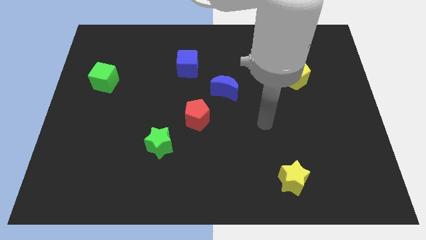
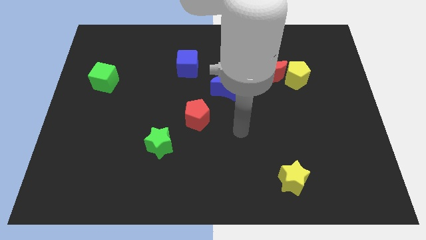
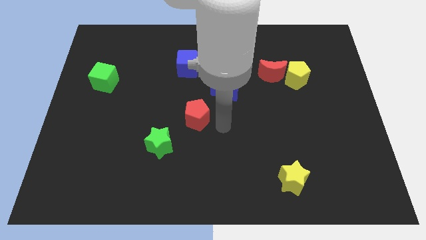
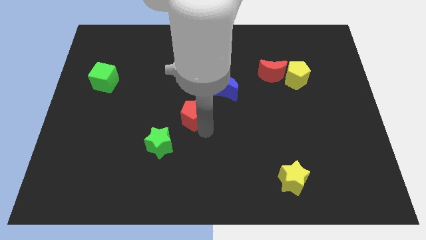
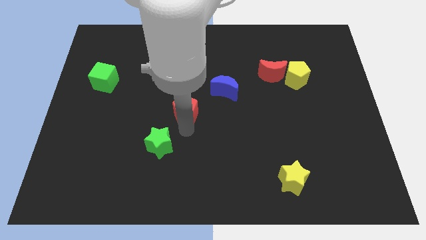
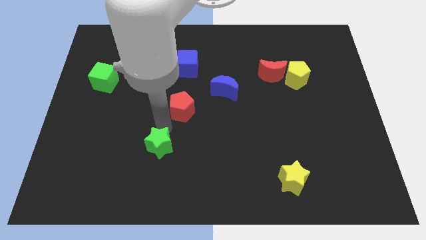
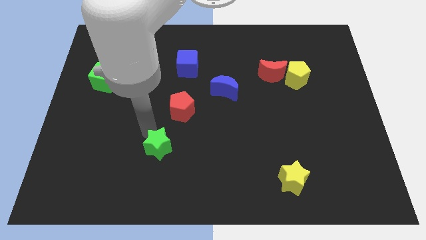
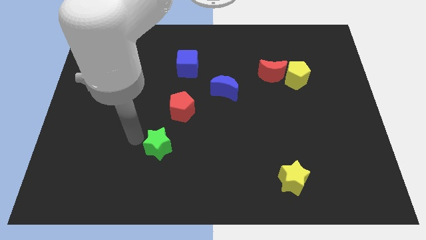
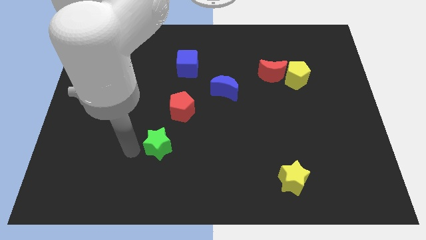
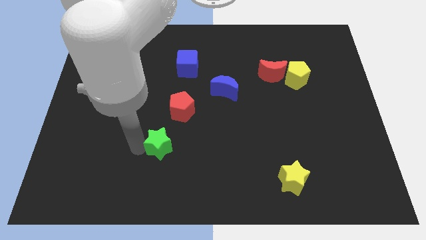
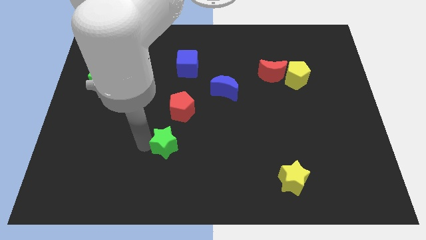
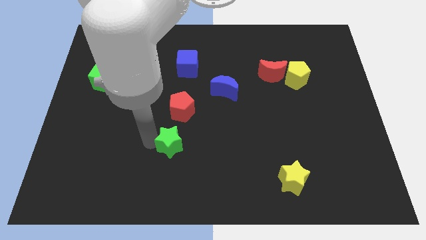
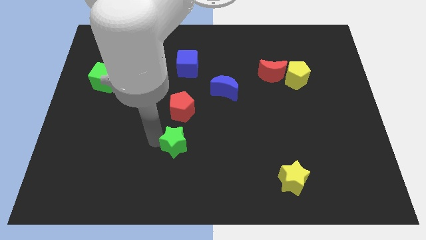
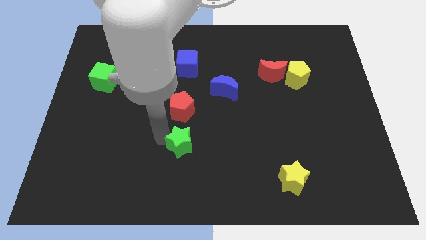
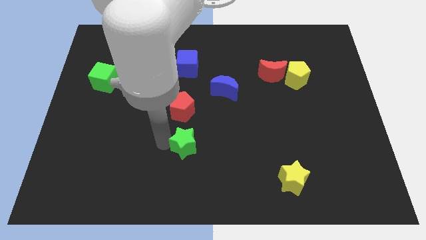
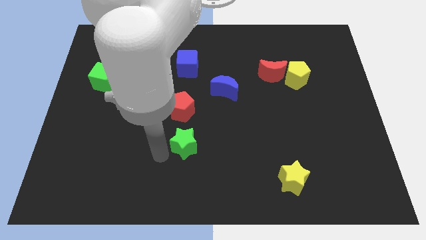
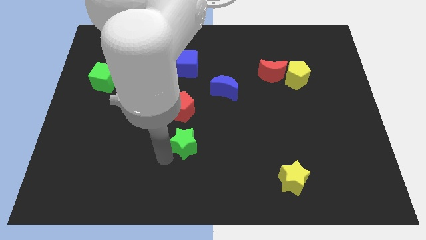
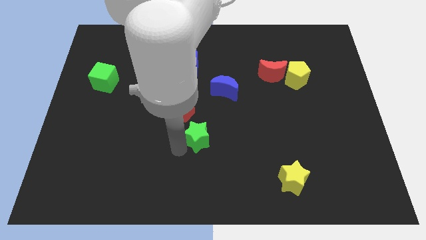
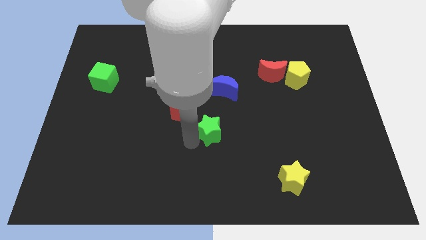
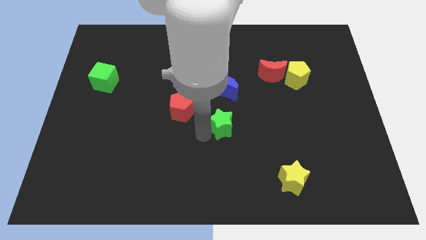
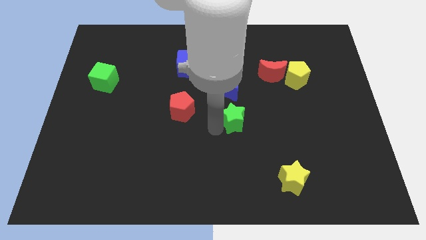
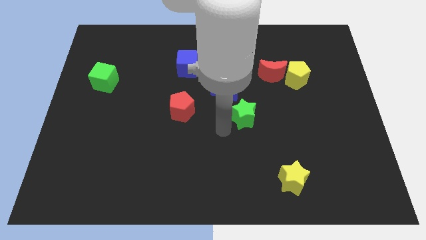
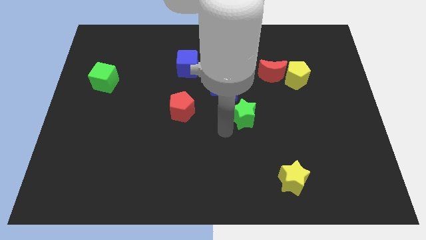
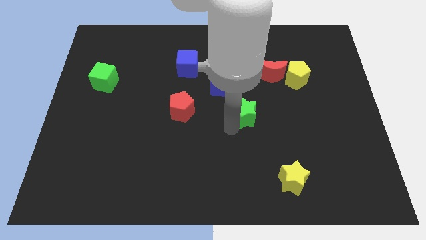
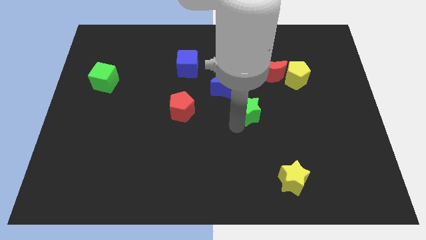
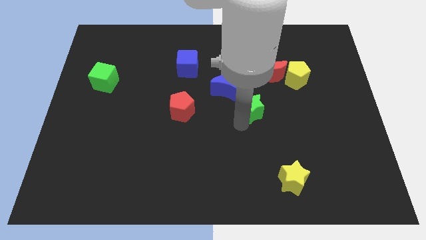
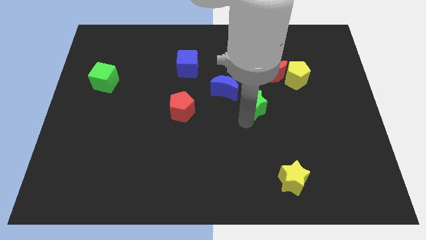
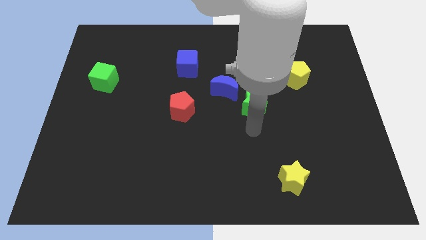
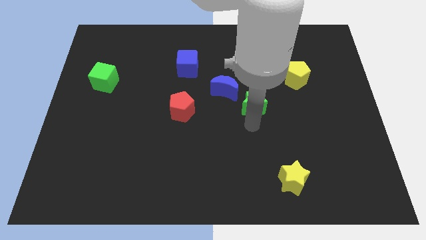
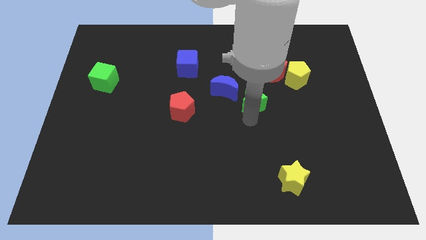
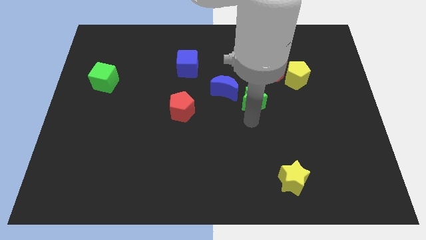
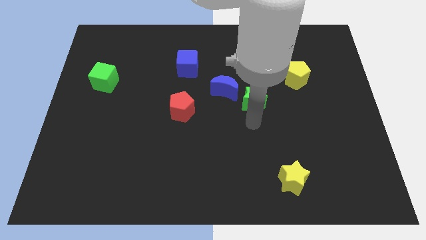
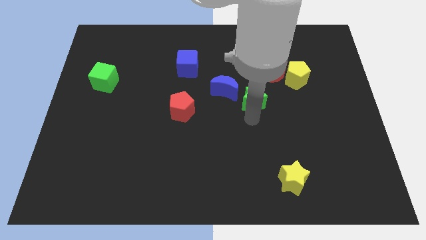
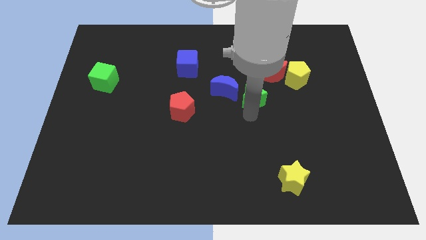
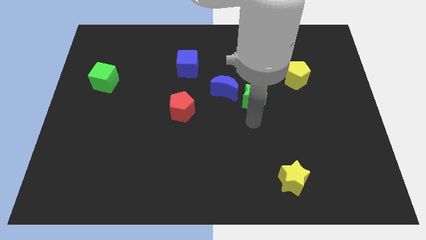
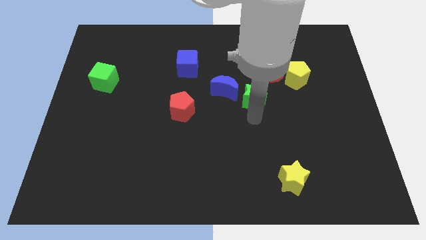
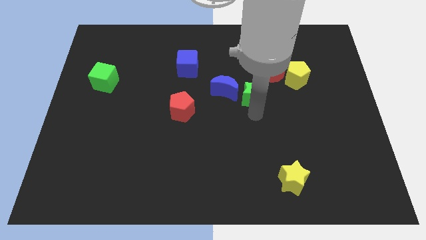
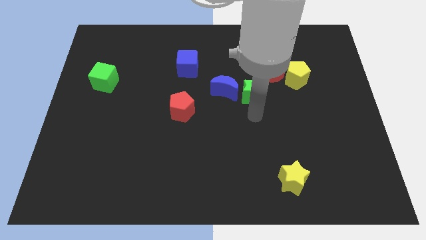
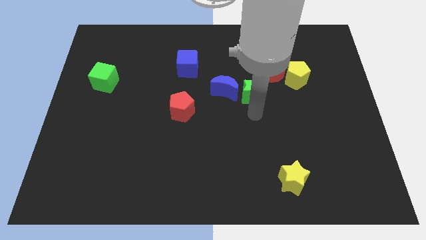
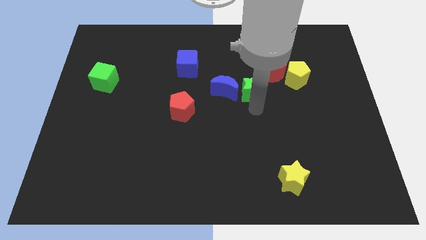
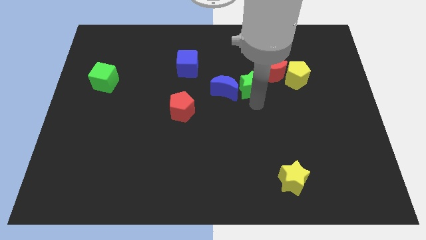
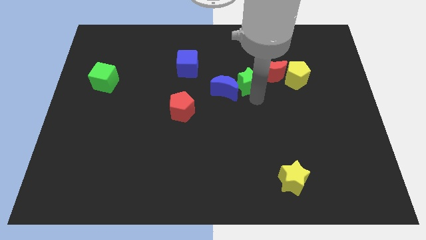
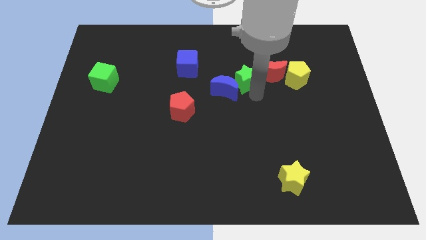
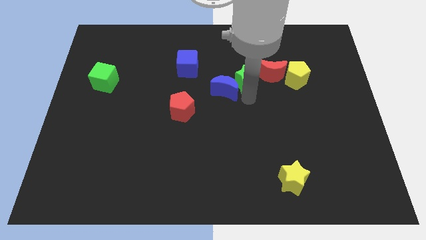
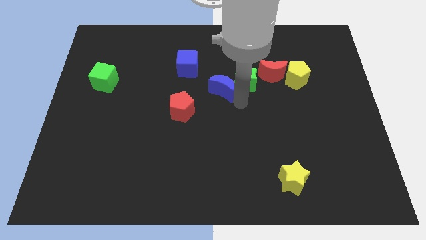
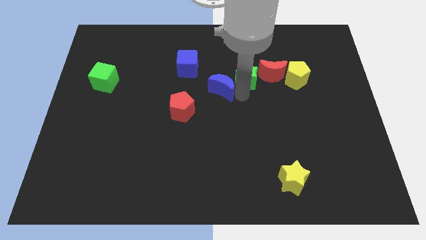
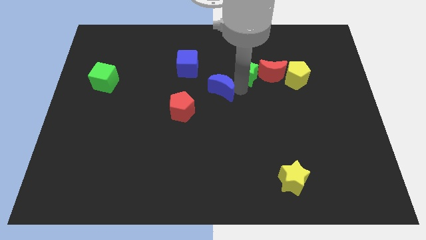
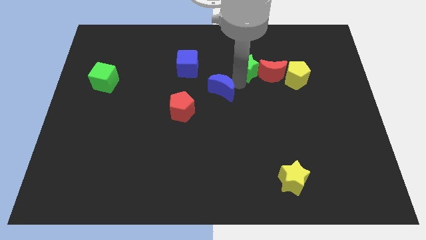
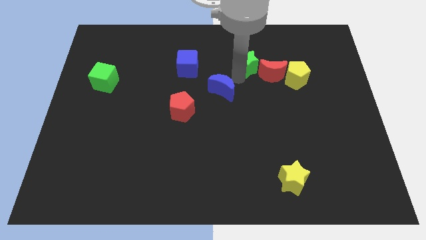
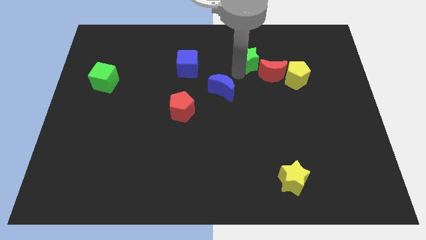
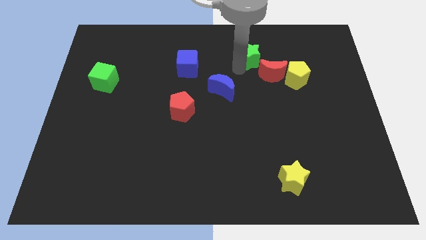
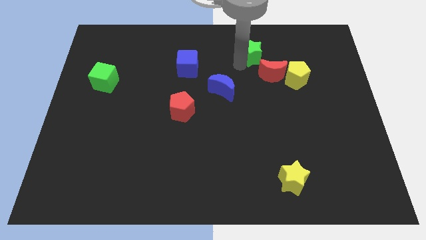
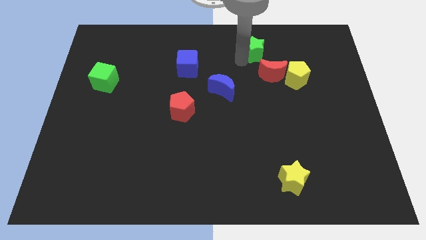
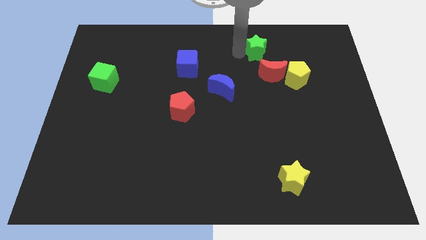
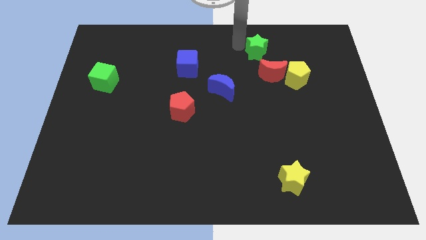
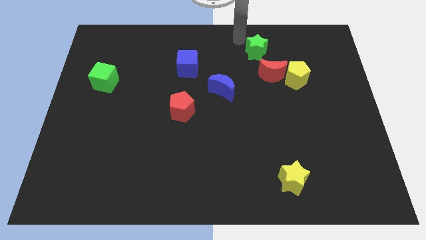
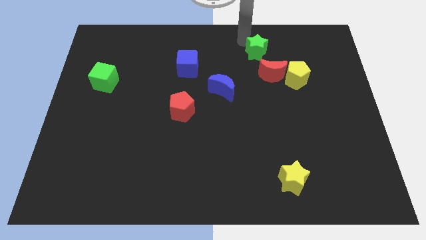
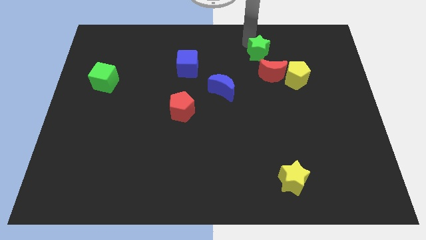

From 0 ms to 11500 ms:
slide the green star to the top left of the yellow pentagon

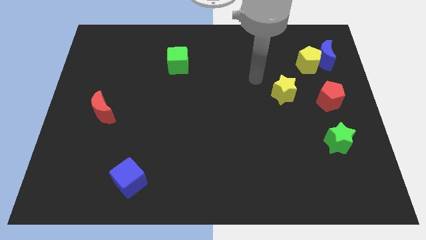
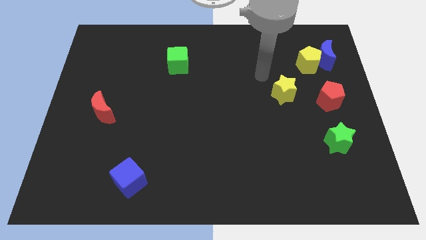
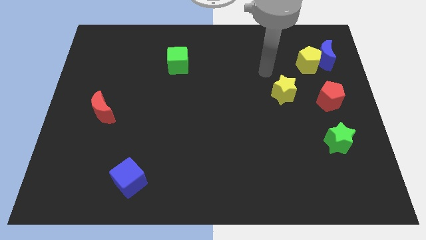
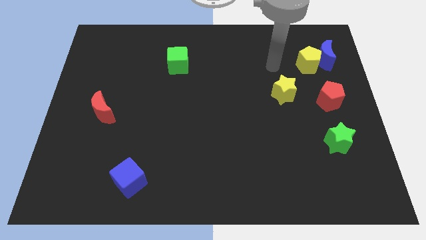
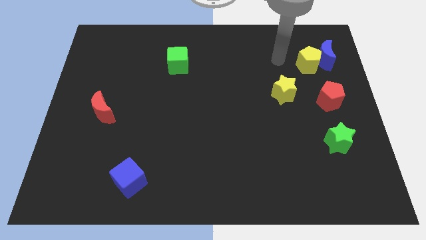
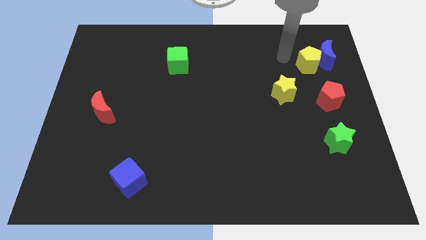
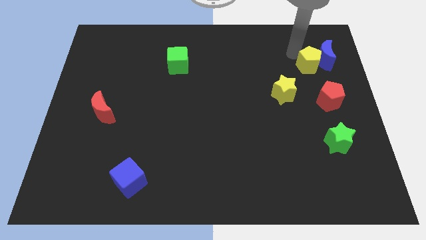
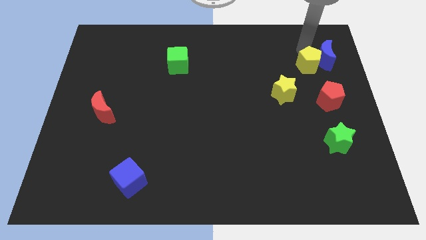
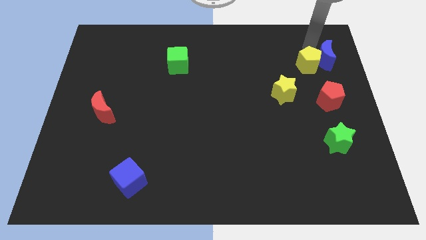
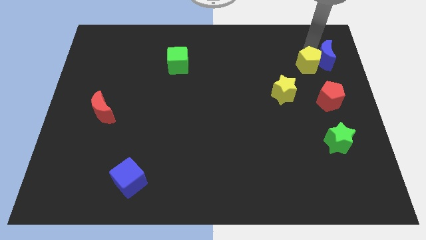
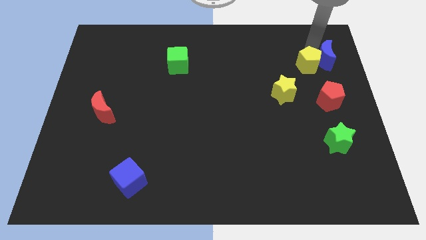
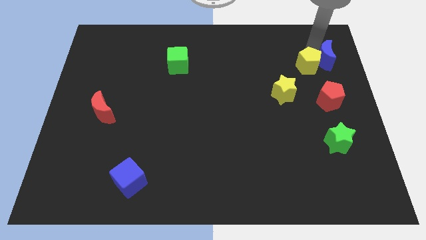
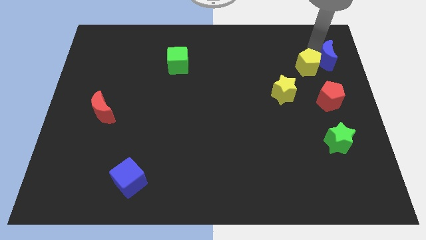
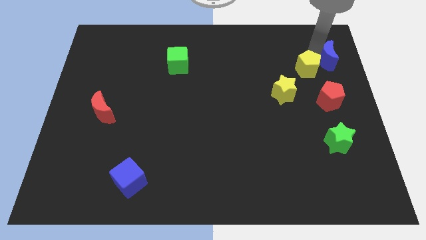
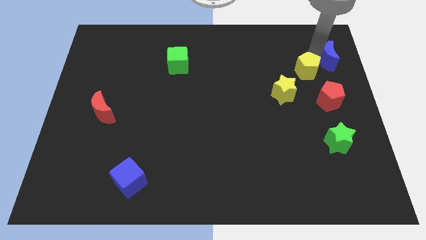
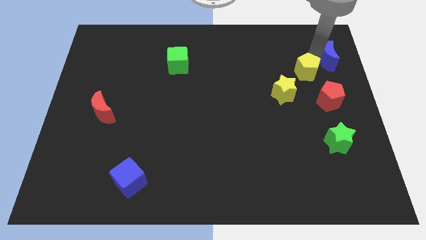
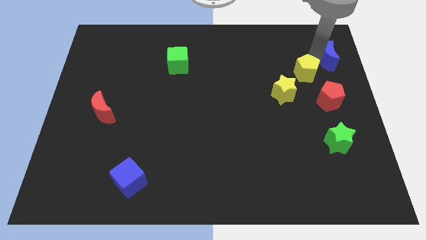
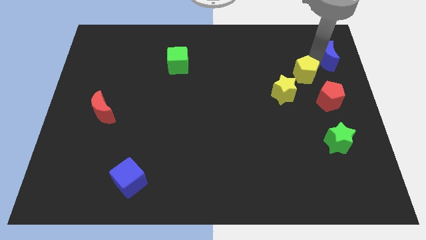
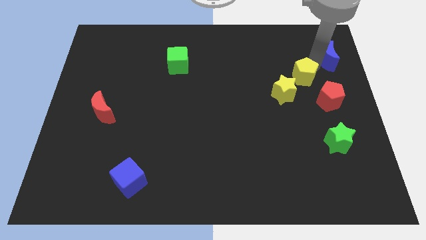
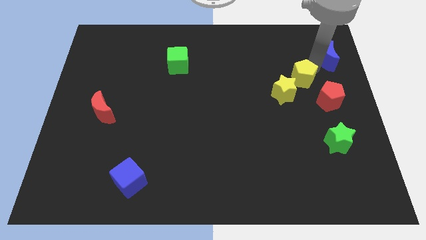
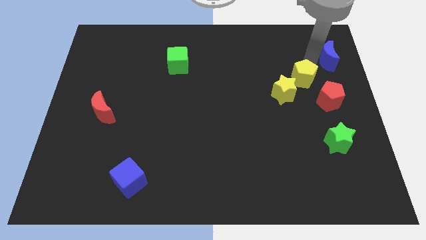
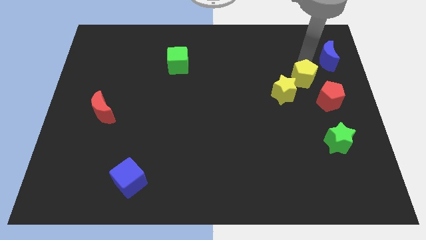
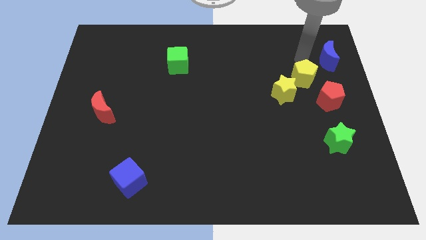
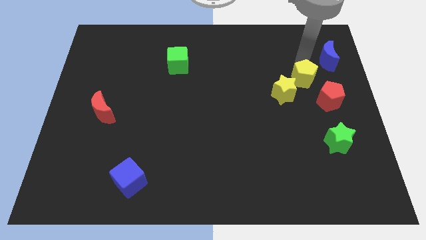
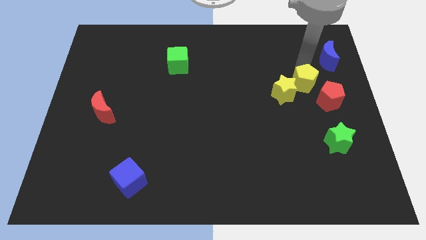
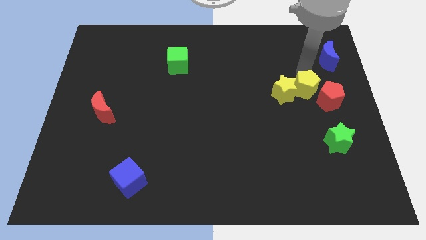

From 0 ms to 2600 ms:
slide the yellow pentagon to the bottom right side of the yellow star
